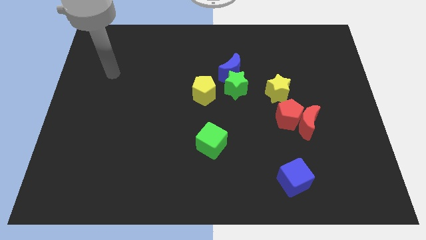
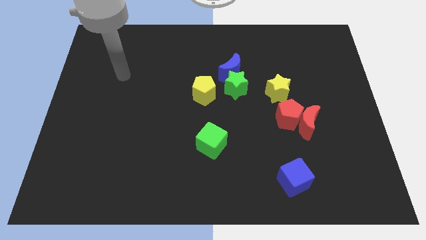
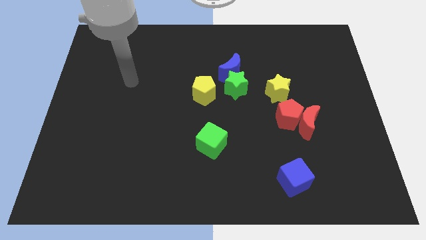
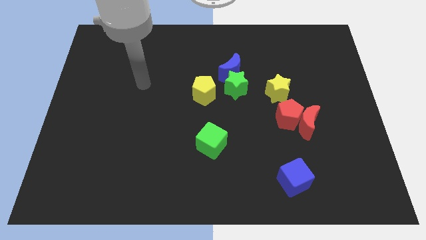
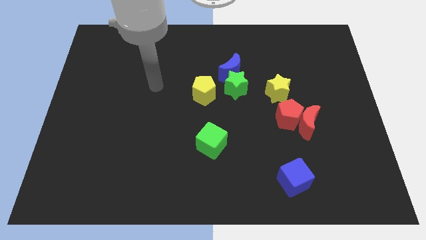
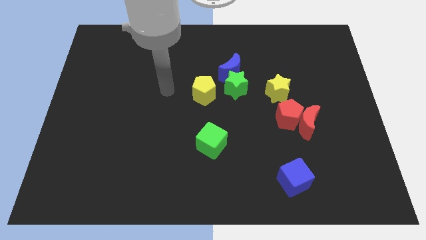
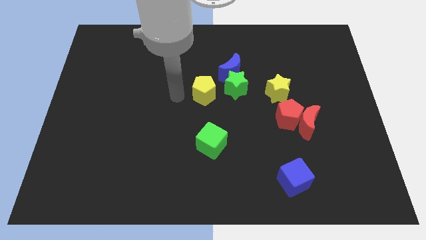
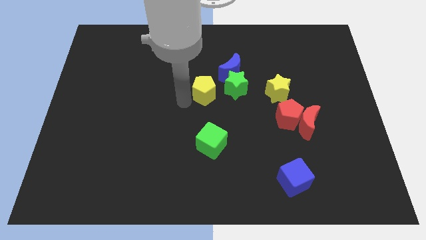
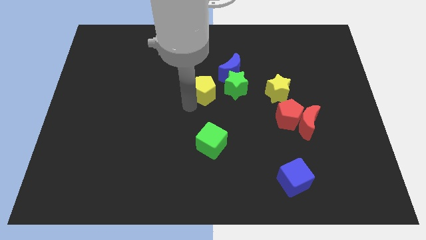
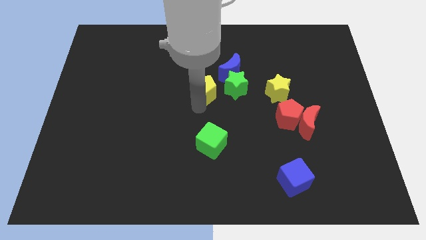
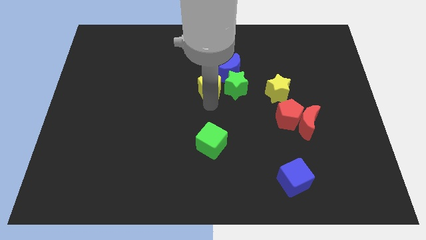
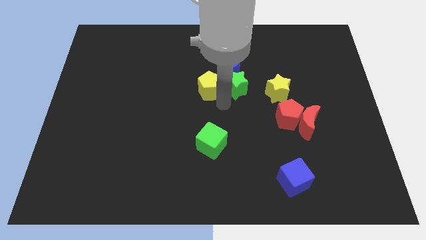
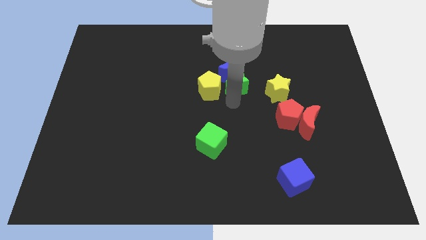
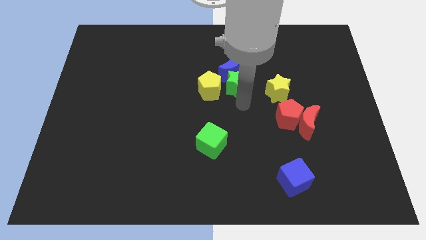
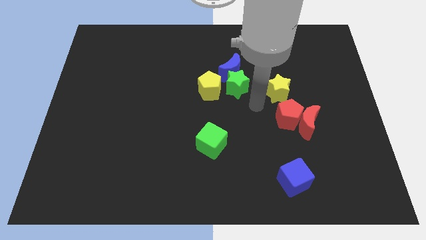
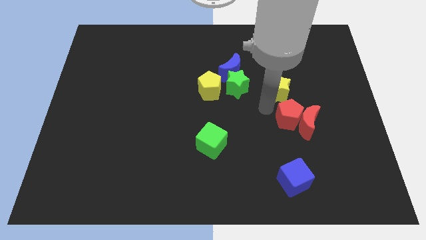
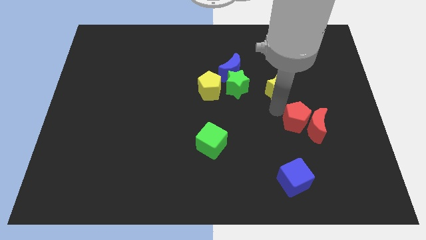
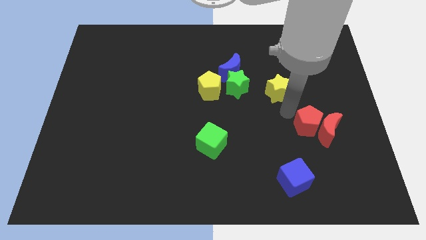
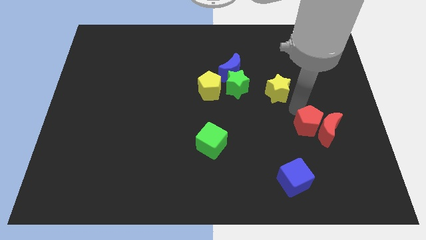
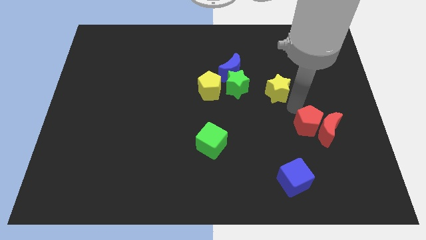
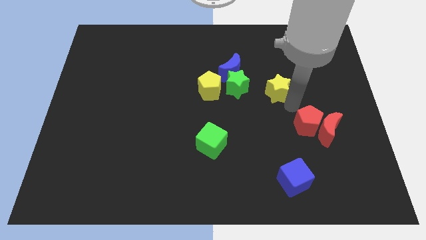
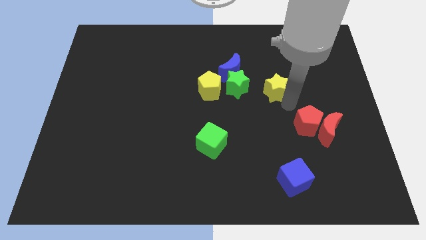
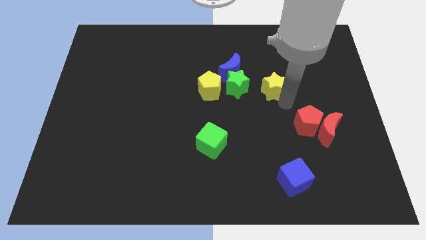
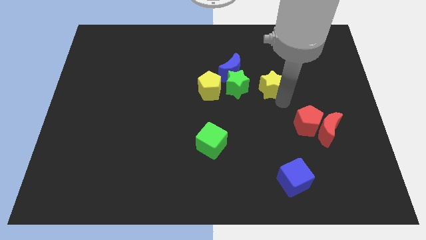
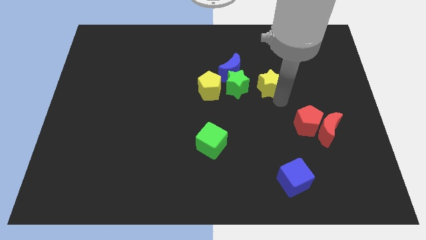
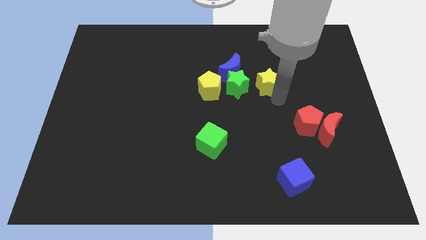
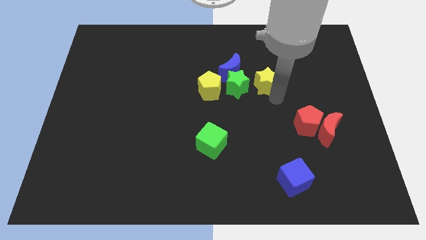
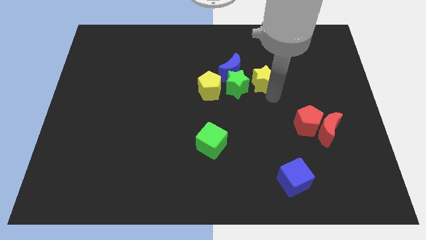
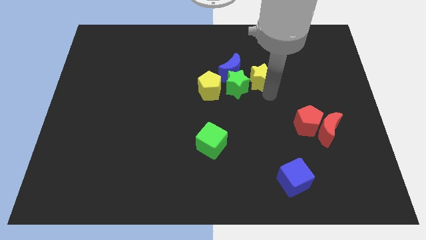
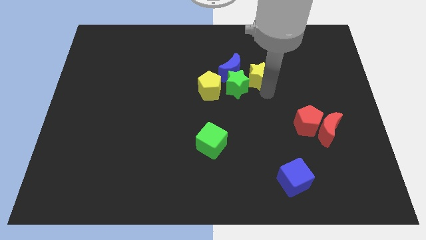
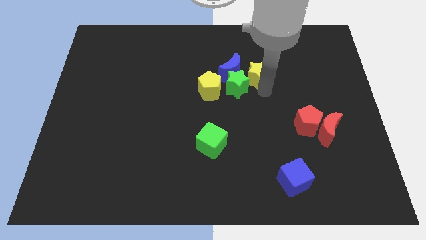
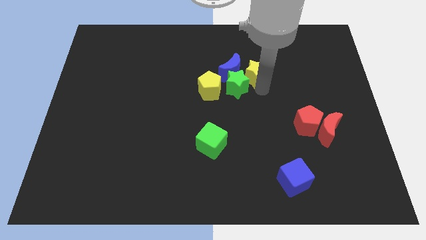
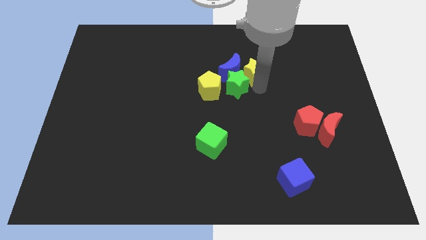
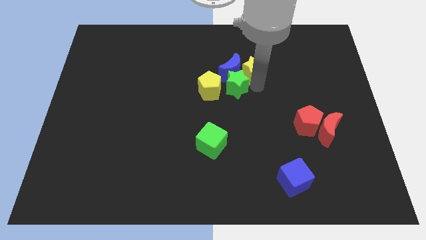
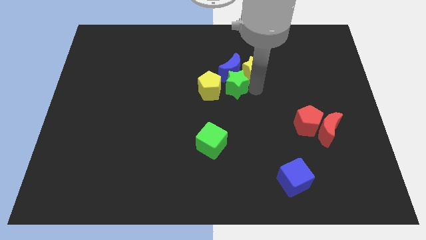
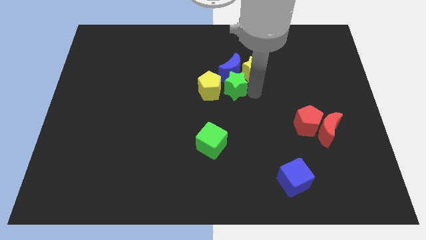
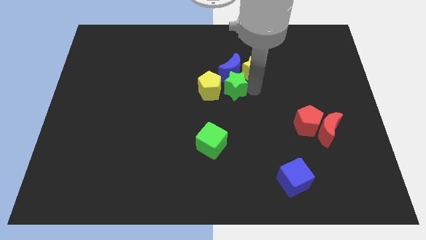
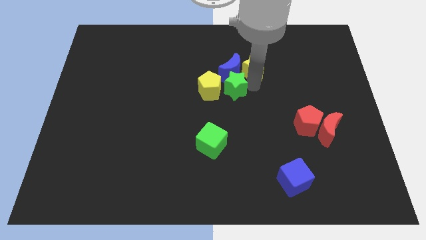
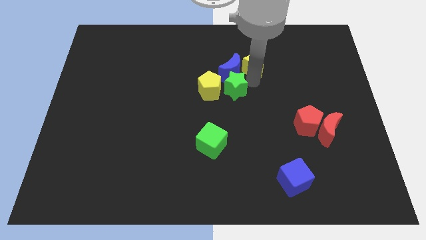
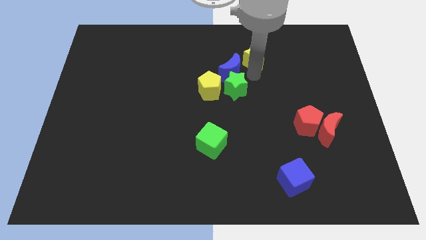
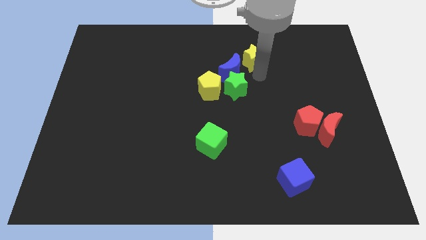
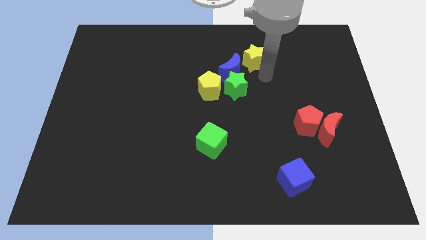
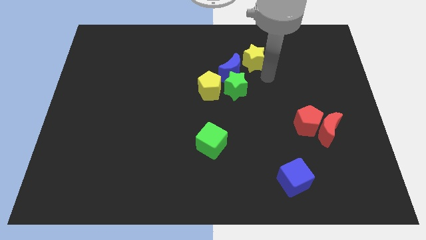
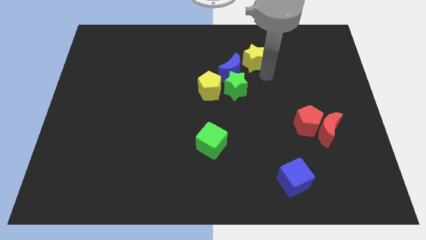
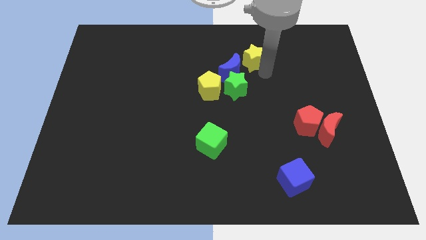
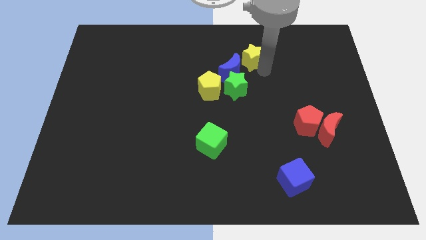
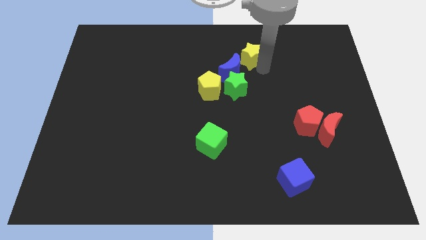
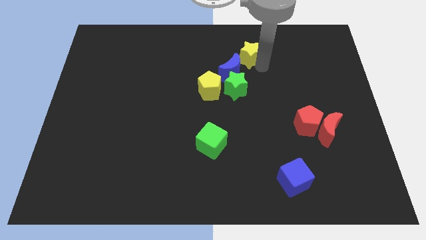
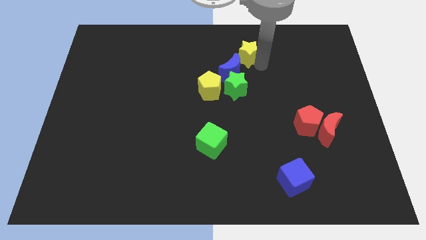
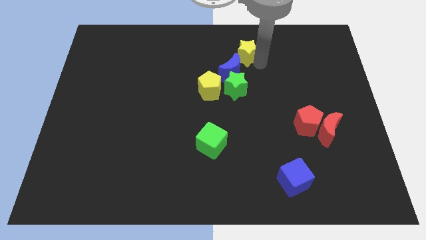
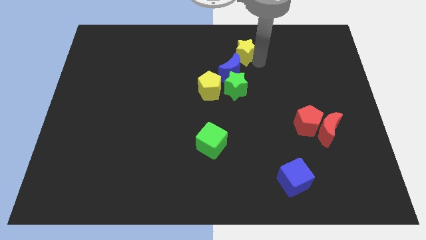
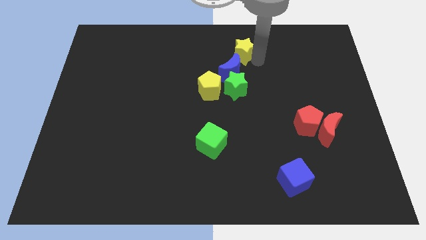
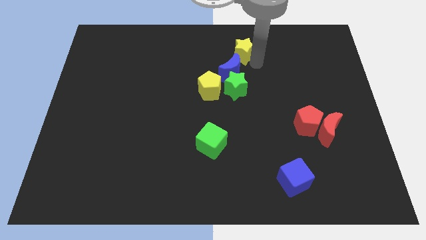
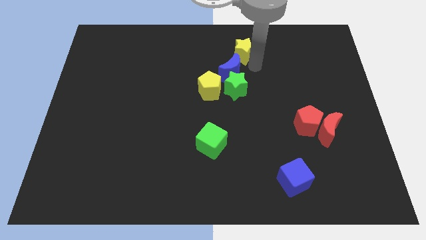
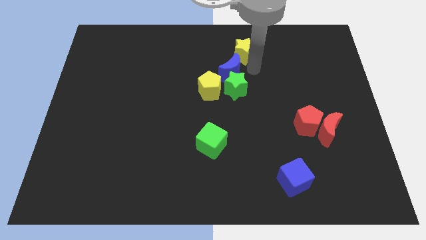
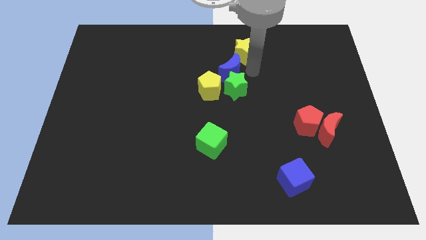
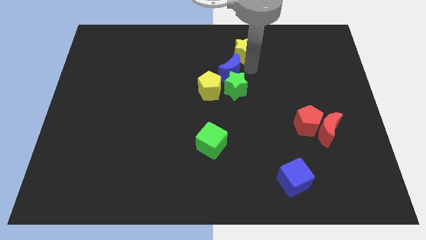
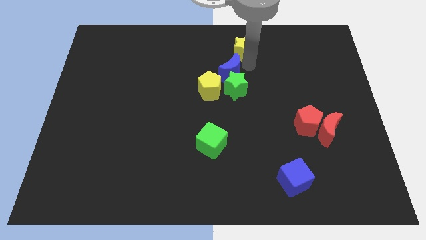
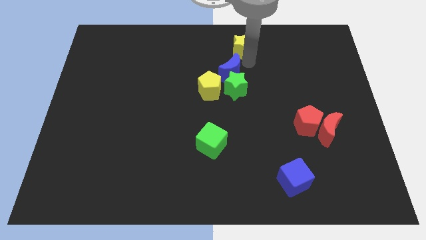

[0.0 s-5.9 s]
slide the yellow star to the top
